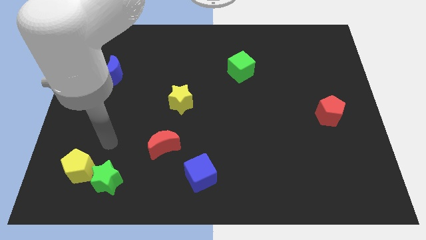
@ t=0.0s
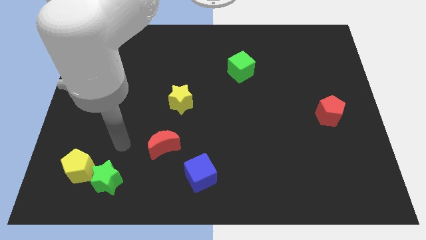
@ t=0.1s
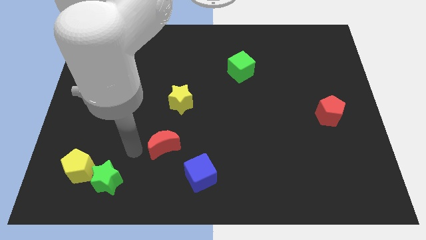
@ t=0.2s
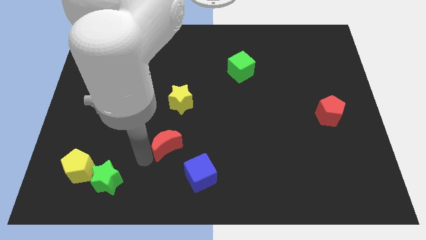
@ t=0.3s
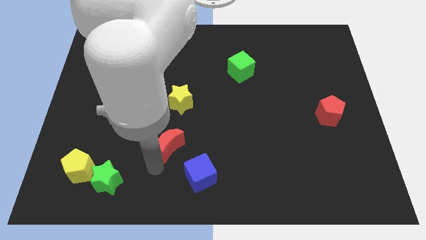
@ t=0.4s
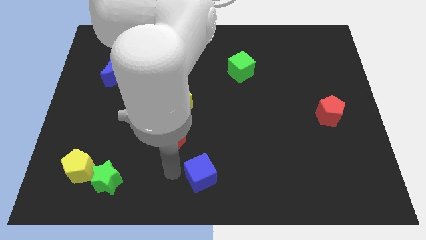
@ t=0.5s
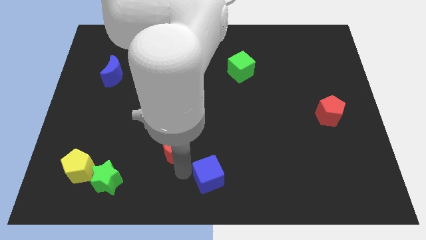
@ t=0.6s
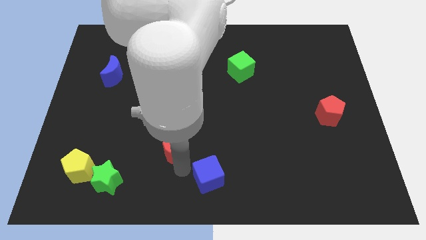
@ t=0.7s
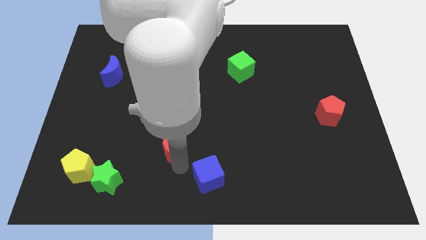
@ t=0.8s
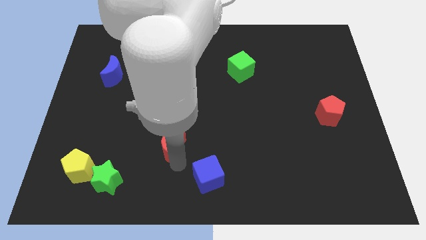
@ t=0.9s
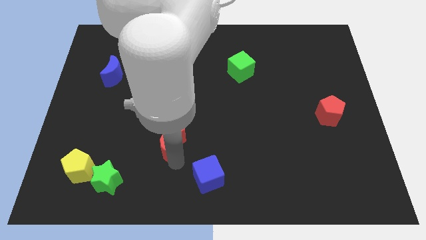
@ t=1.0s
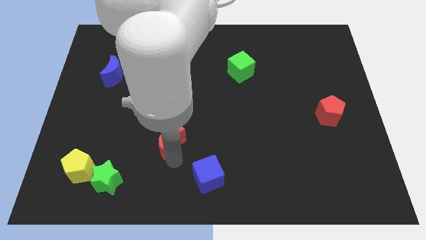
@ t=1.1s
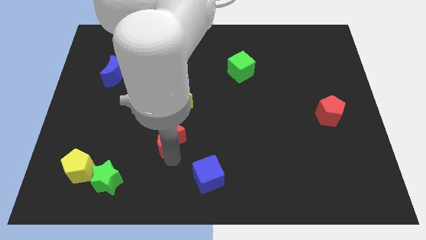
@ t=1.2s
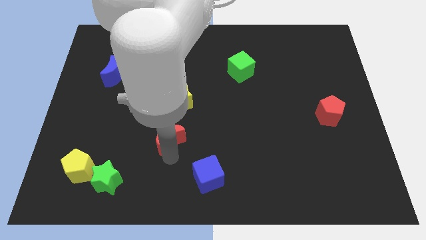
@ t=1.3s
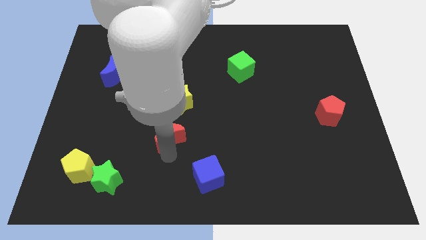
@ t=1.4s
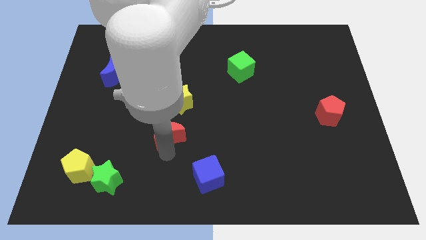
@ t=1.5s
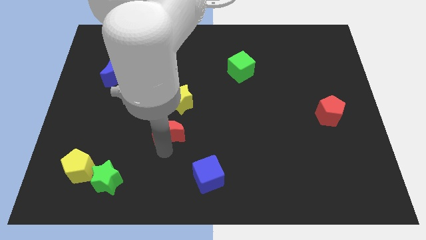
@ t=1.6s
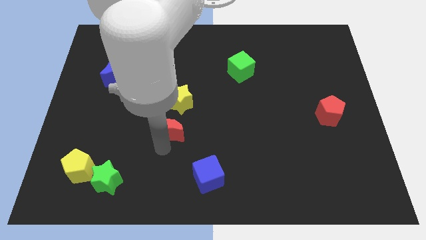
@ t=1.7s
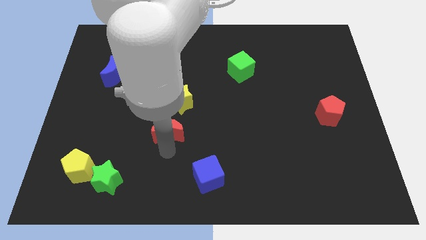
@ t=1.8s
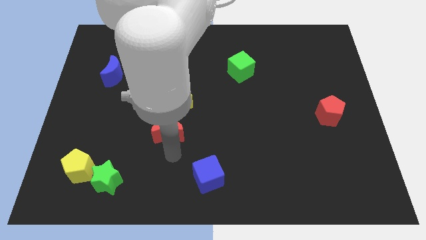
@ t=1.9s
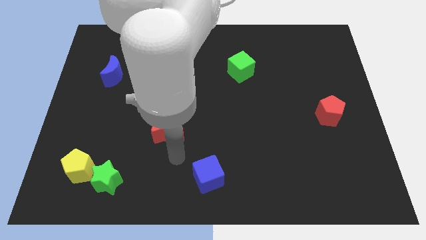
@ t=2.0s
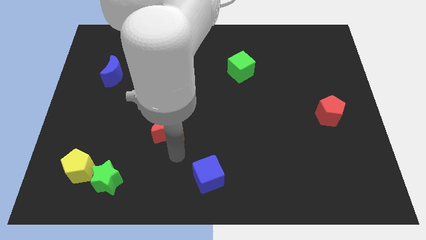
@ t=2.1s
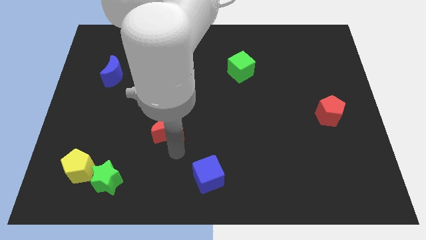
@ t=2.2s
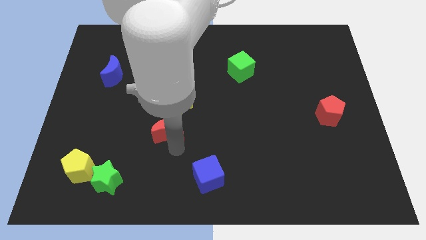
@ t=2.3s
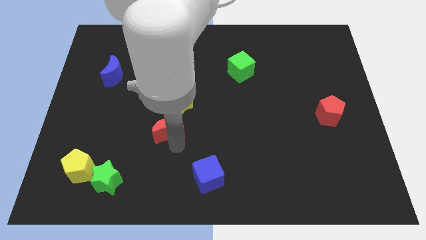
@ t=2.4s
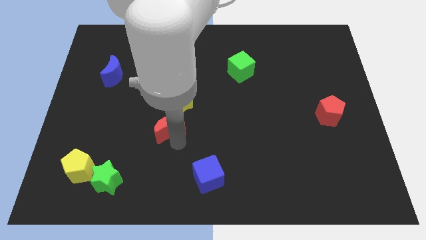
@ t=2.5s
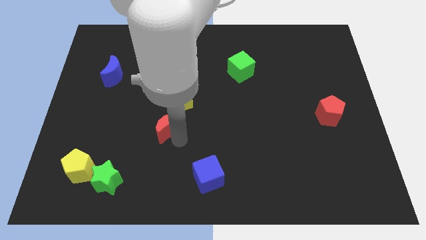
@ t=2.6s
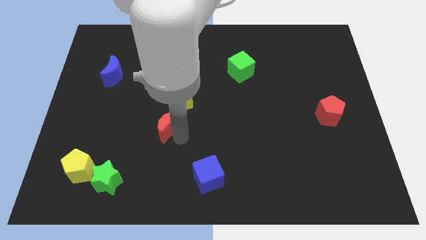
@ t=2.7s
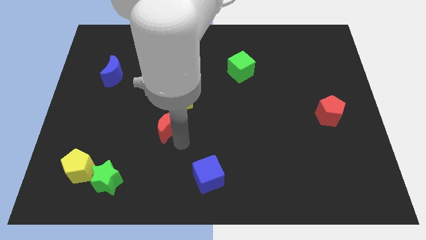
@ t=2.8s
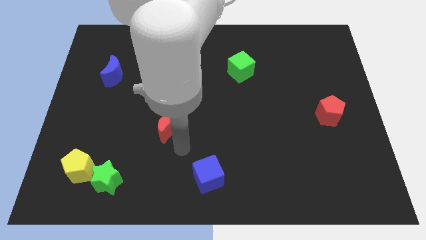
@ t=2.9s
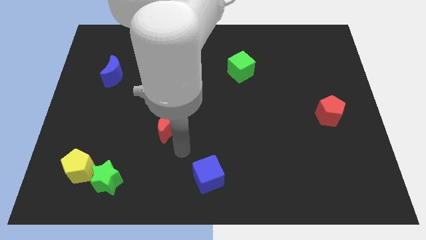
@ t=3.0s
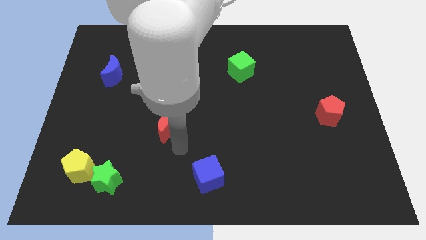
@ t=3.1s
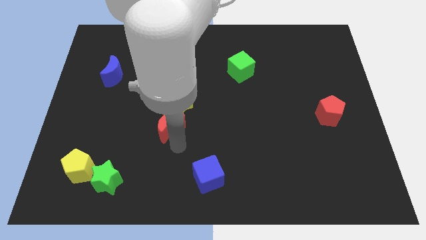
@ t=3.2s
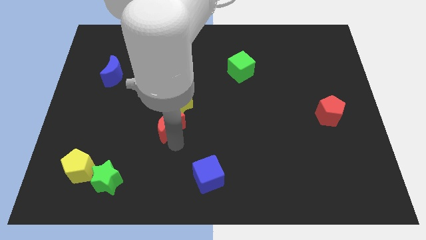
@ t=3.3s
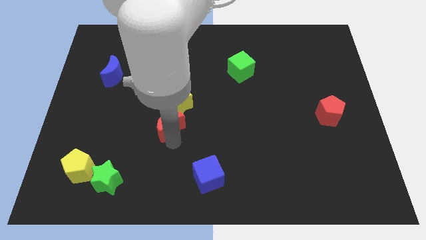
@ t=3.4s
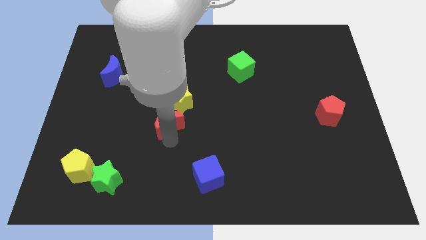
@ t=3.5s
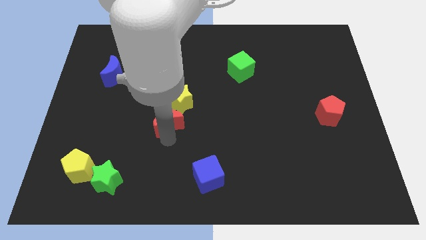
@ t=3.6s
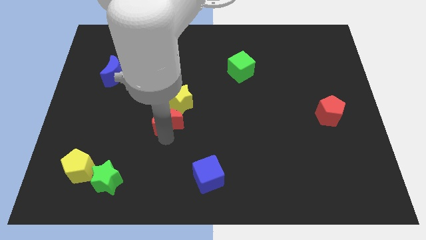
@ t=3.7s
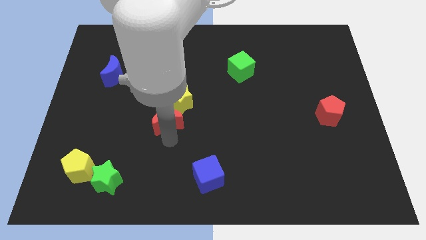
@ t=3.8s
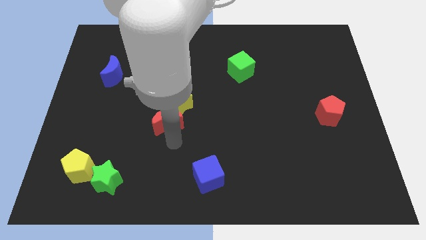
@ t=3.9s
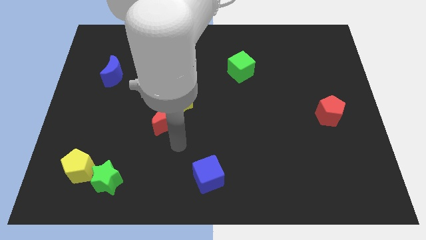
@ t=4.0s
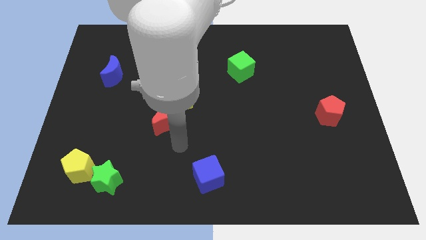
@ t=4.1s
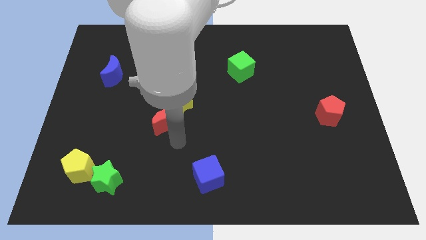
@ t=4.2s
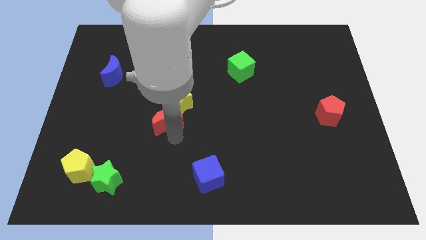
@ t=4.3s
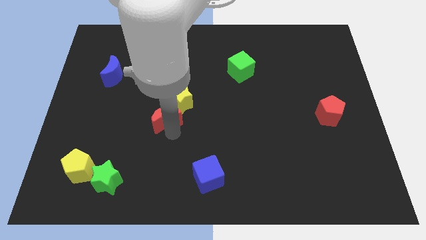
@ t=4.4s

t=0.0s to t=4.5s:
slightly slide the red moon upwards

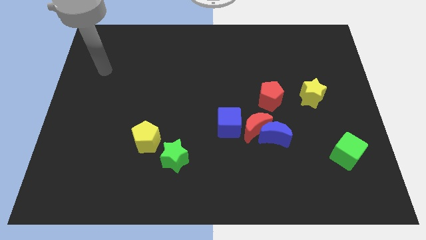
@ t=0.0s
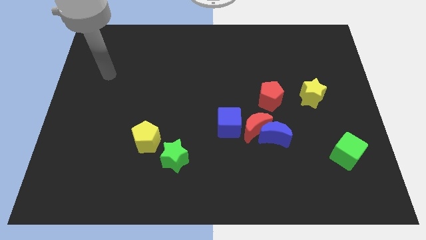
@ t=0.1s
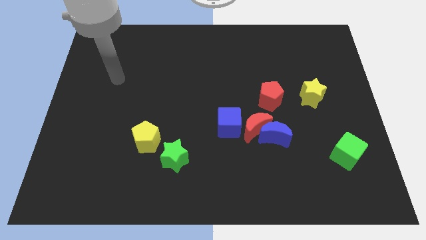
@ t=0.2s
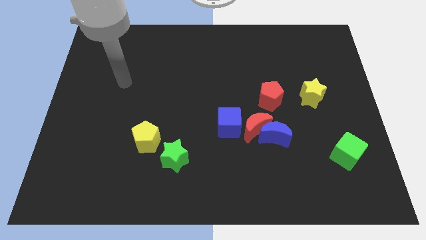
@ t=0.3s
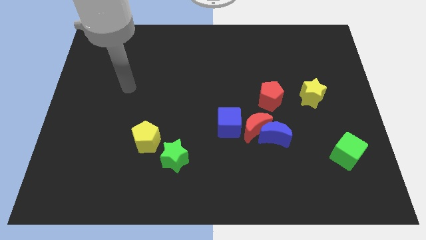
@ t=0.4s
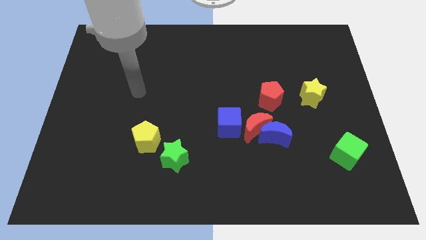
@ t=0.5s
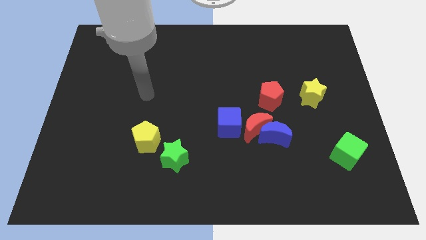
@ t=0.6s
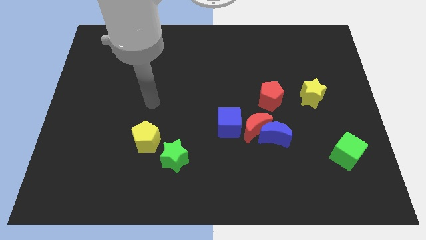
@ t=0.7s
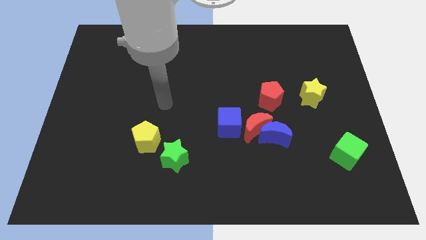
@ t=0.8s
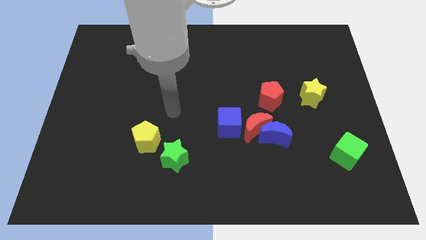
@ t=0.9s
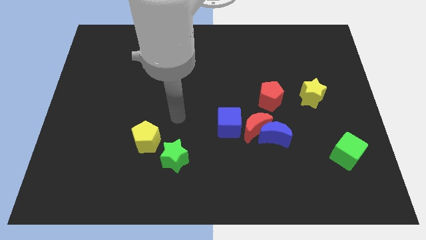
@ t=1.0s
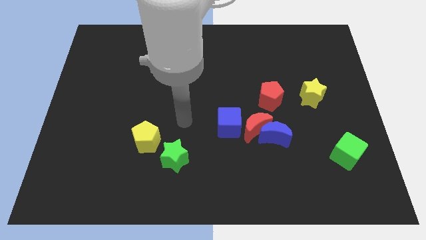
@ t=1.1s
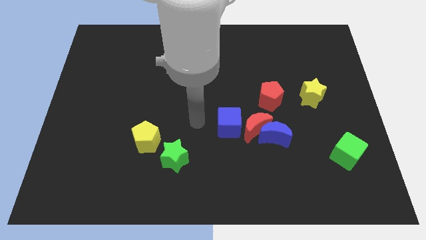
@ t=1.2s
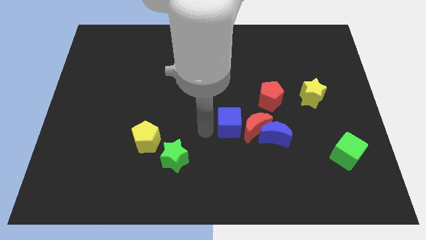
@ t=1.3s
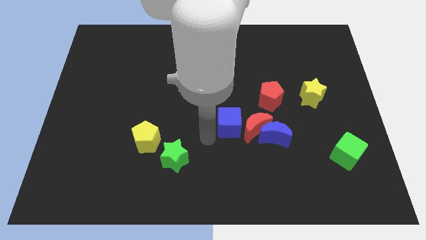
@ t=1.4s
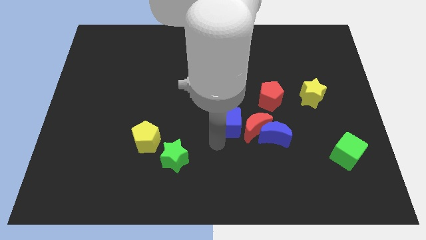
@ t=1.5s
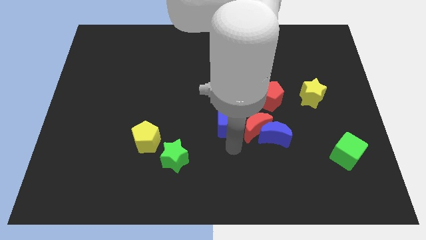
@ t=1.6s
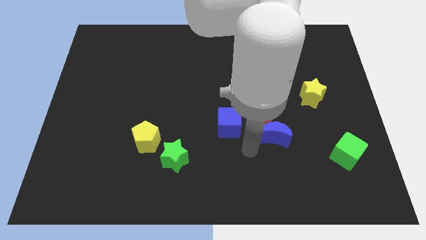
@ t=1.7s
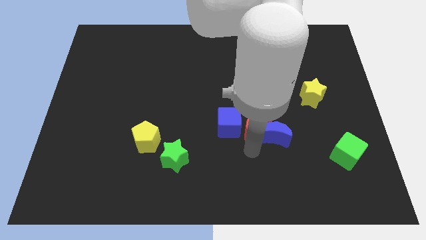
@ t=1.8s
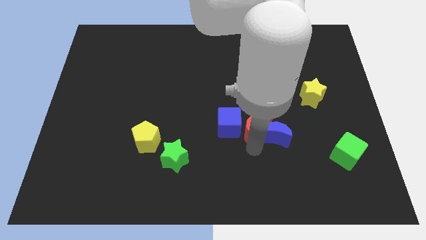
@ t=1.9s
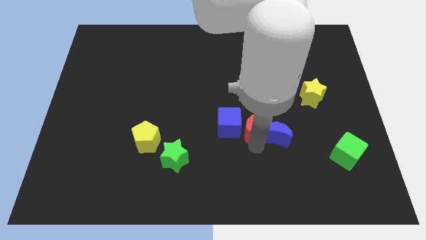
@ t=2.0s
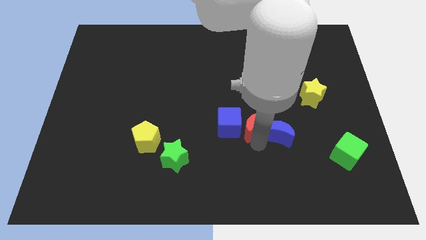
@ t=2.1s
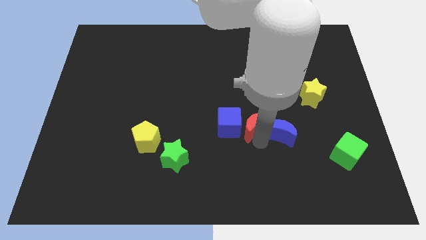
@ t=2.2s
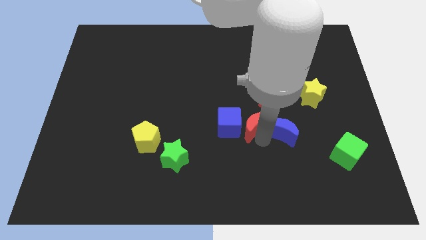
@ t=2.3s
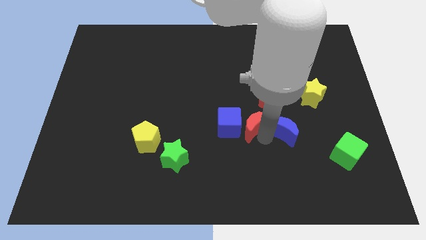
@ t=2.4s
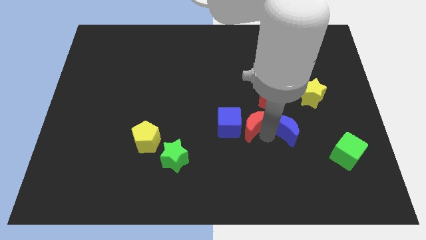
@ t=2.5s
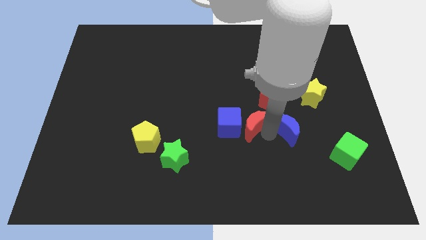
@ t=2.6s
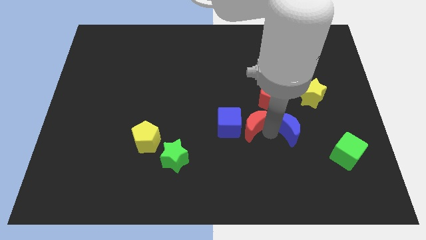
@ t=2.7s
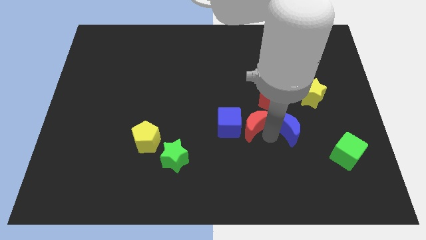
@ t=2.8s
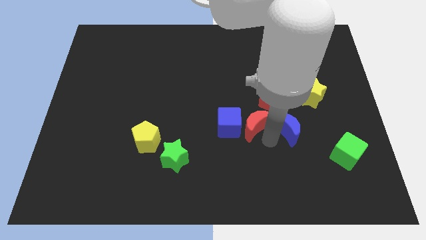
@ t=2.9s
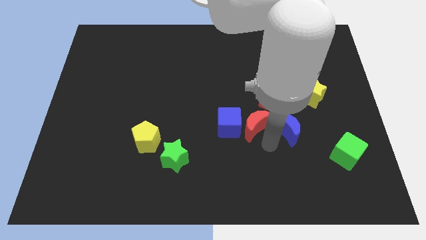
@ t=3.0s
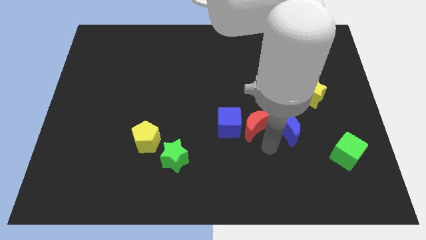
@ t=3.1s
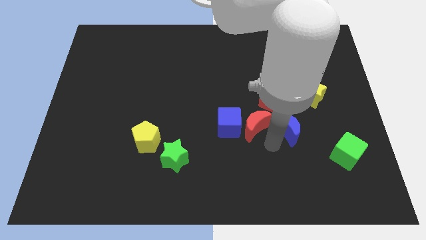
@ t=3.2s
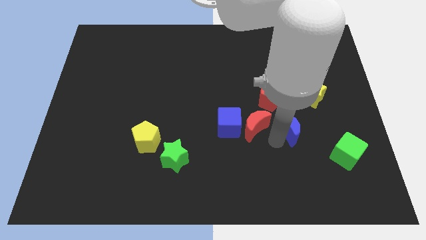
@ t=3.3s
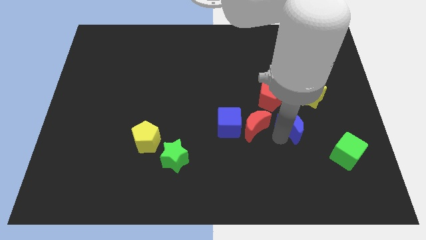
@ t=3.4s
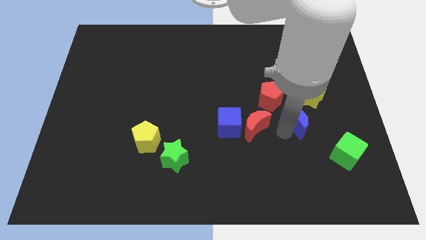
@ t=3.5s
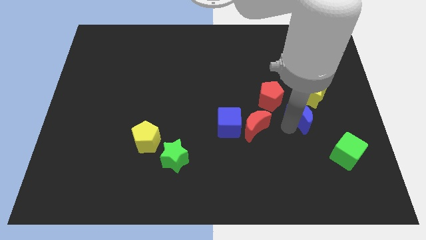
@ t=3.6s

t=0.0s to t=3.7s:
push the blue moon slightly diagonally upwards and right
